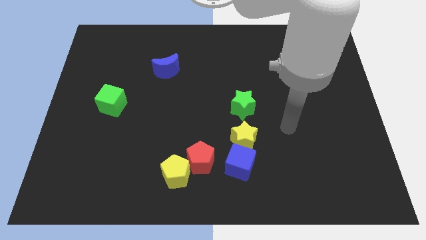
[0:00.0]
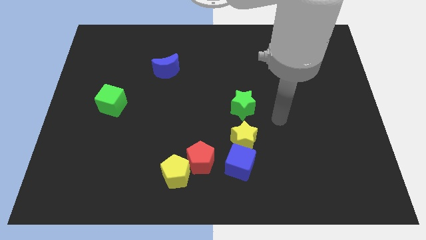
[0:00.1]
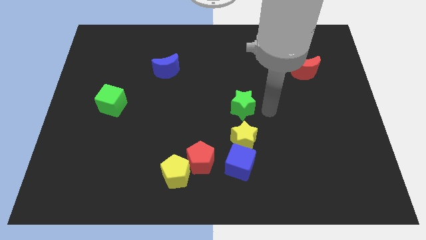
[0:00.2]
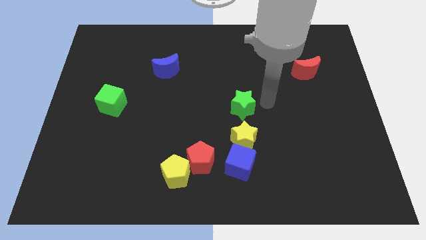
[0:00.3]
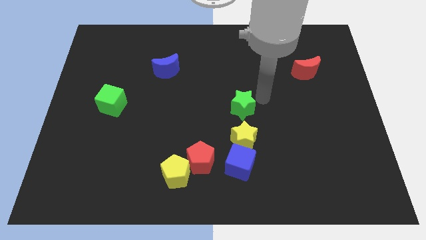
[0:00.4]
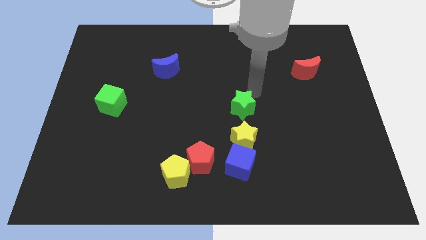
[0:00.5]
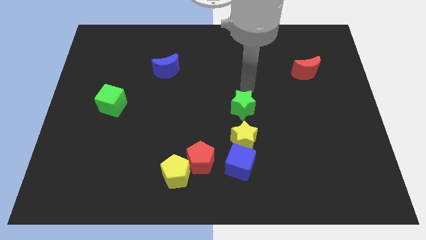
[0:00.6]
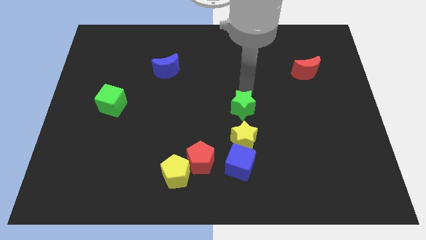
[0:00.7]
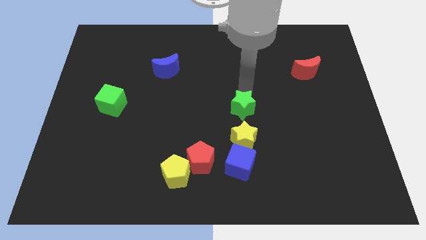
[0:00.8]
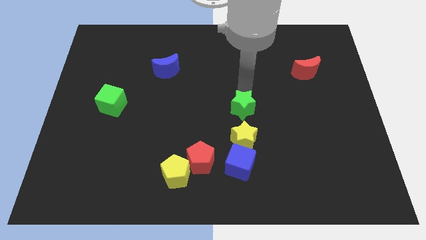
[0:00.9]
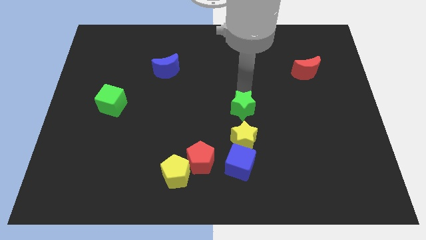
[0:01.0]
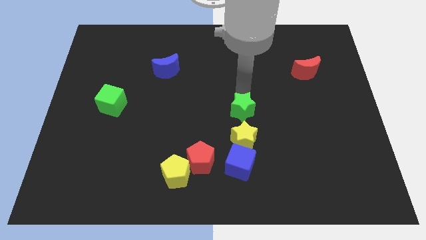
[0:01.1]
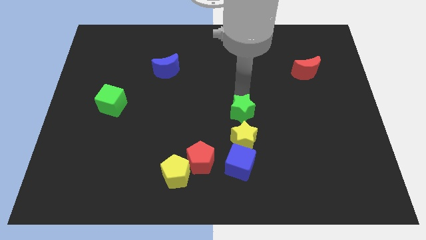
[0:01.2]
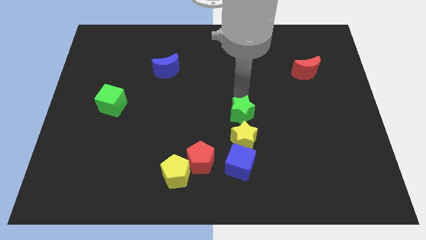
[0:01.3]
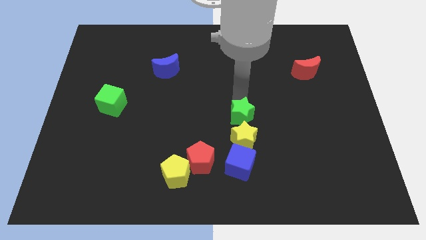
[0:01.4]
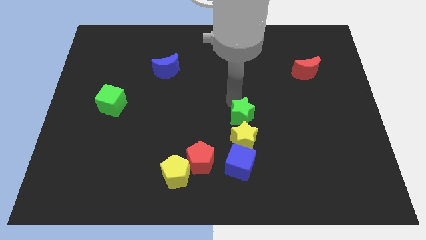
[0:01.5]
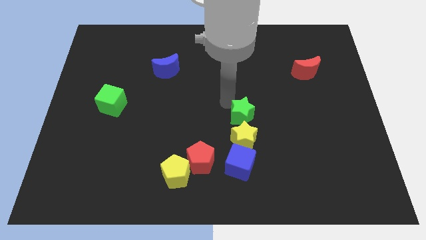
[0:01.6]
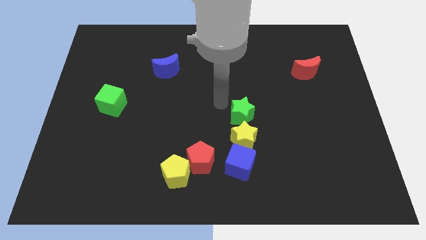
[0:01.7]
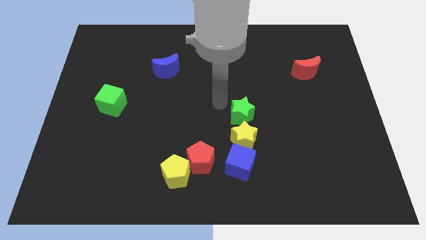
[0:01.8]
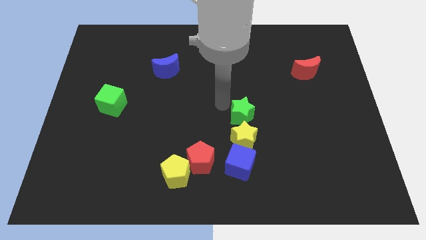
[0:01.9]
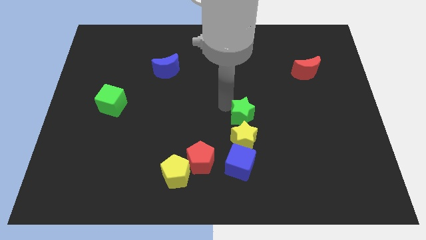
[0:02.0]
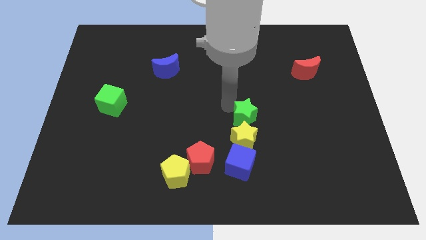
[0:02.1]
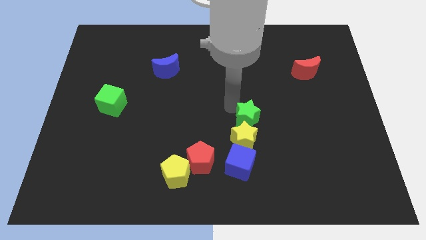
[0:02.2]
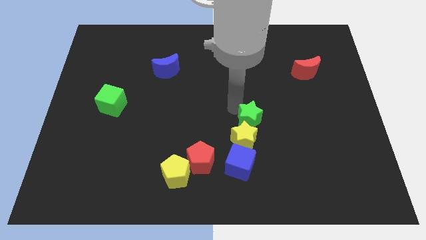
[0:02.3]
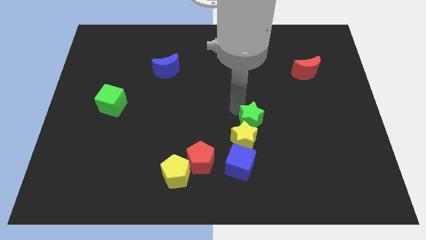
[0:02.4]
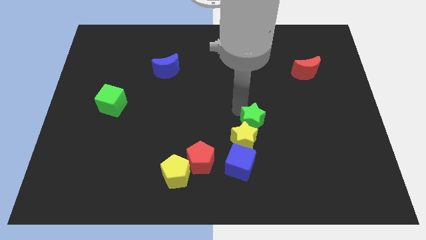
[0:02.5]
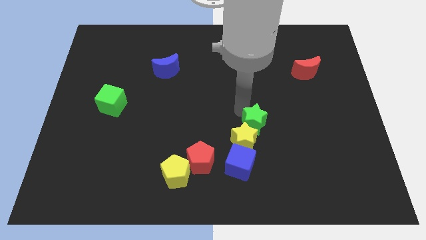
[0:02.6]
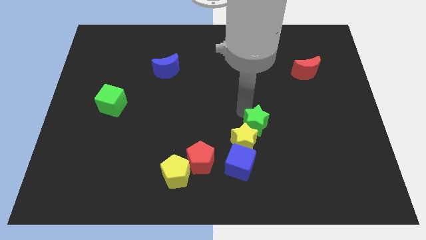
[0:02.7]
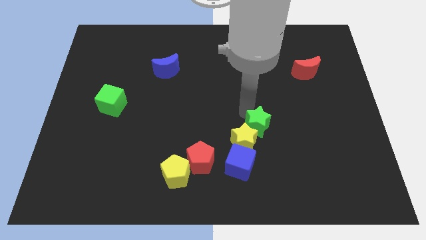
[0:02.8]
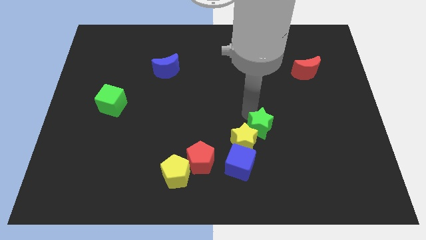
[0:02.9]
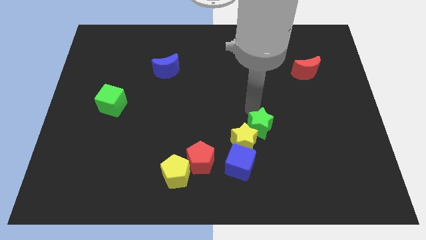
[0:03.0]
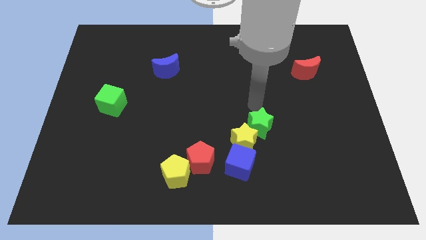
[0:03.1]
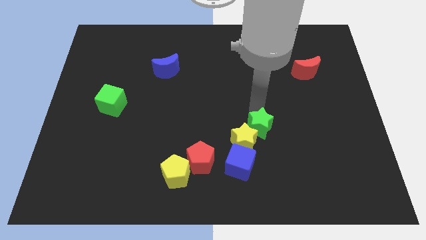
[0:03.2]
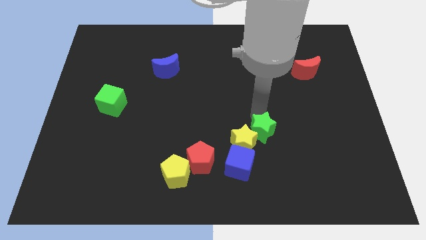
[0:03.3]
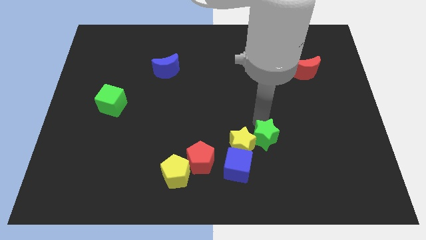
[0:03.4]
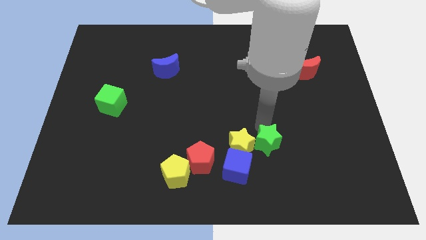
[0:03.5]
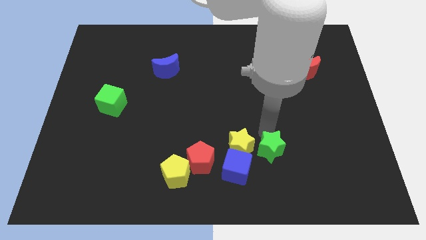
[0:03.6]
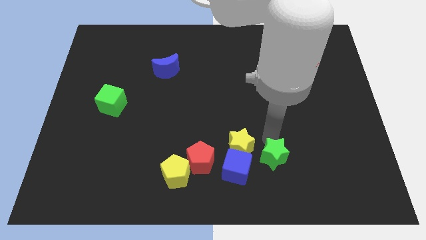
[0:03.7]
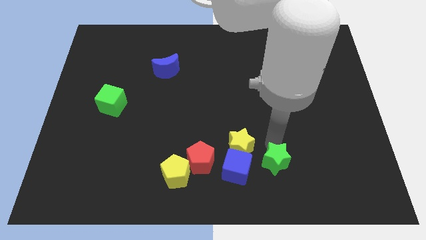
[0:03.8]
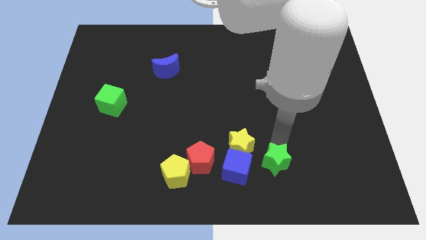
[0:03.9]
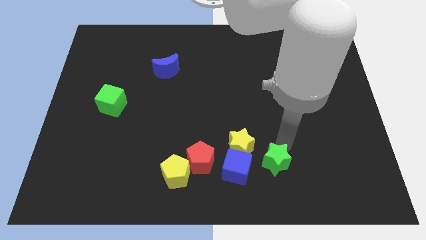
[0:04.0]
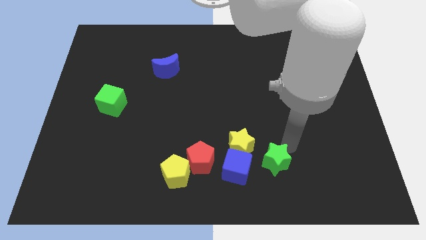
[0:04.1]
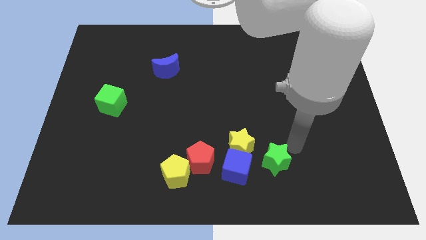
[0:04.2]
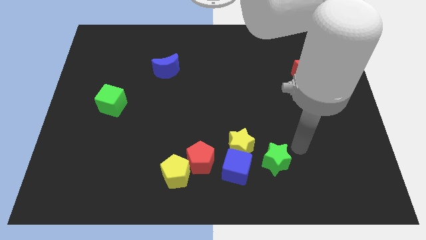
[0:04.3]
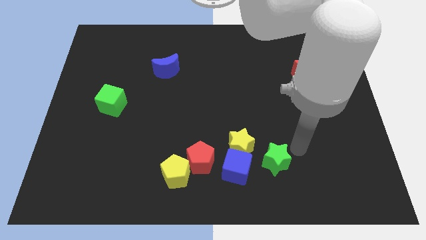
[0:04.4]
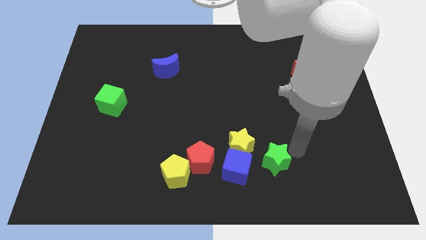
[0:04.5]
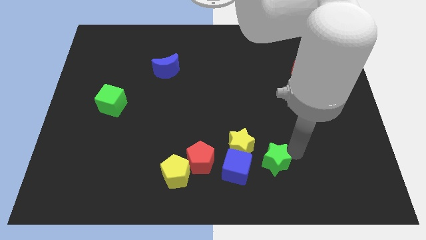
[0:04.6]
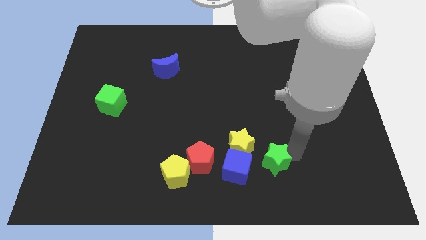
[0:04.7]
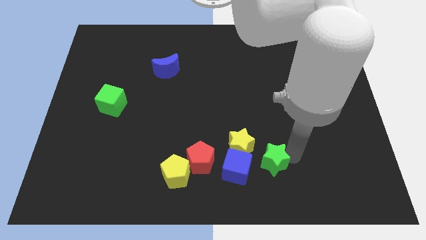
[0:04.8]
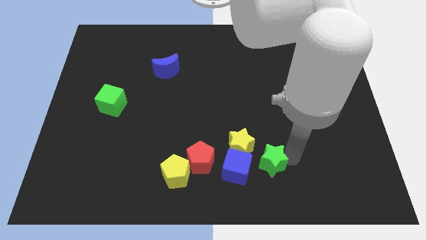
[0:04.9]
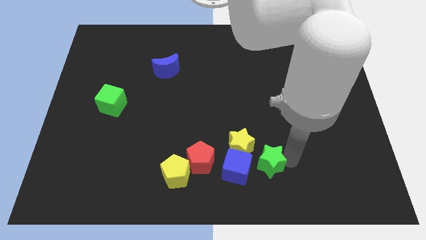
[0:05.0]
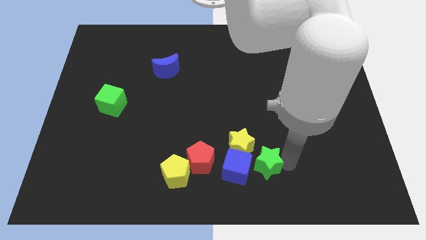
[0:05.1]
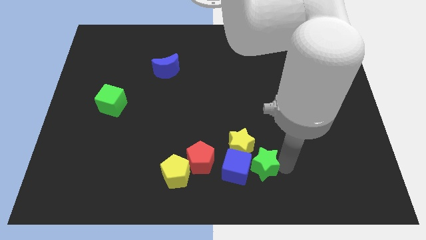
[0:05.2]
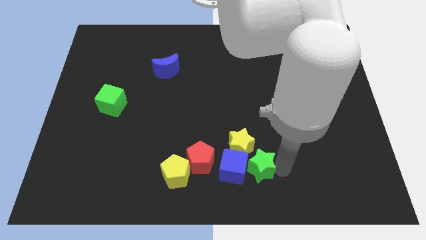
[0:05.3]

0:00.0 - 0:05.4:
move the green star below the yellow star

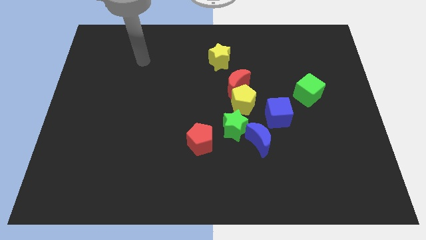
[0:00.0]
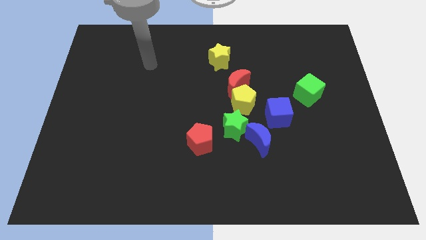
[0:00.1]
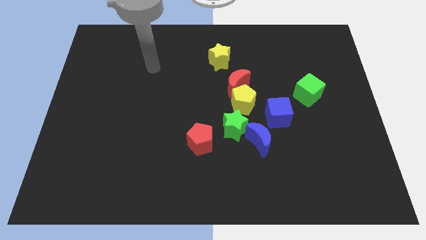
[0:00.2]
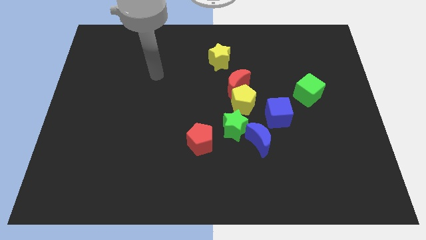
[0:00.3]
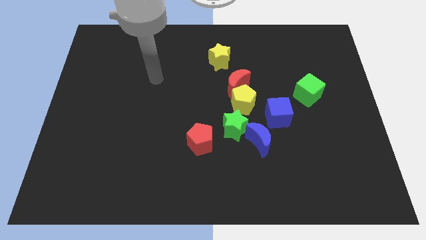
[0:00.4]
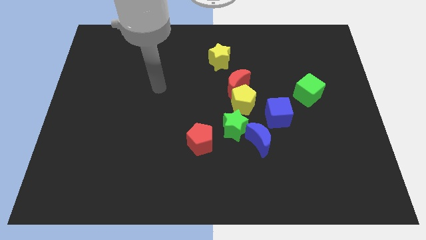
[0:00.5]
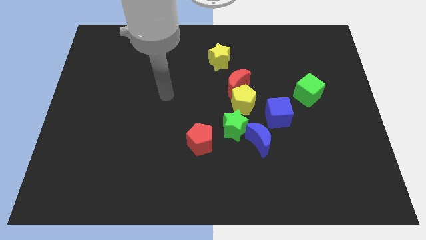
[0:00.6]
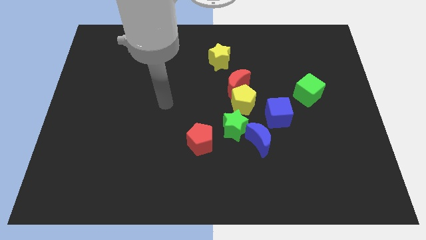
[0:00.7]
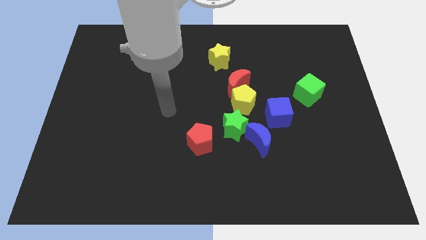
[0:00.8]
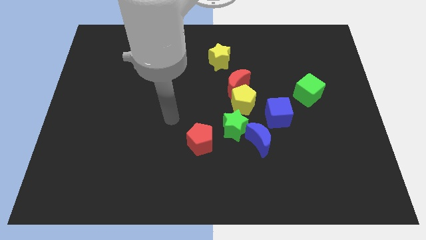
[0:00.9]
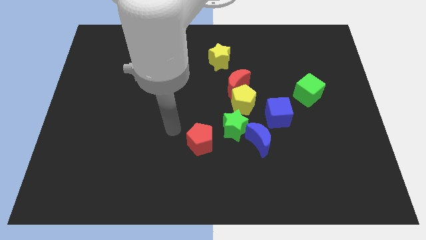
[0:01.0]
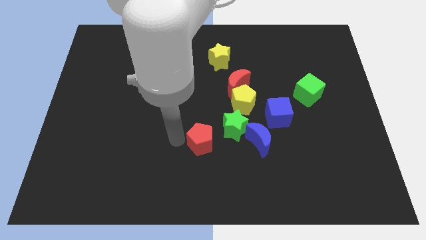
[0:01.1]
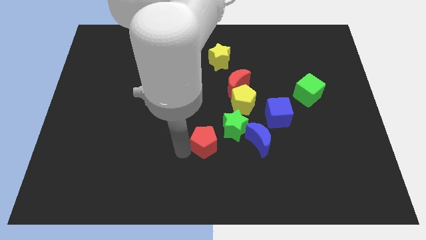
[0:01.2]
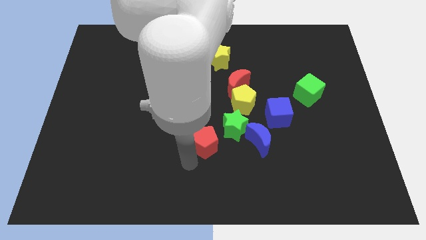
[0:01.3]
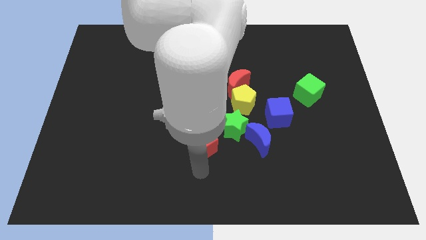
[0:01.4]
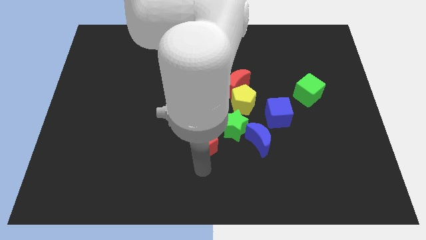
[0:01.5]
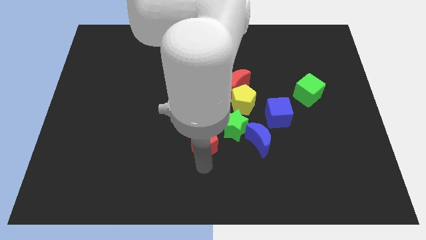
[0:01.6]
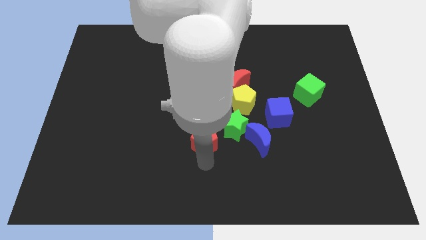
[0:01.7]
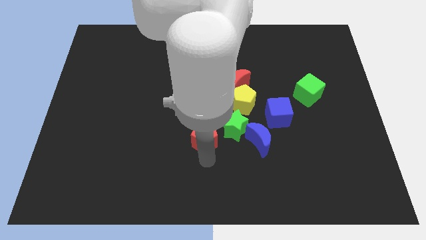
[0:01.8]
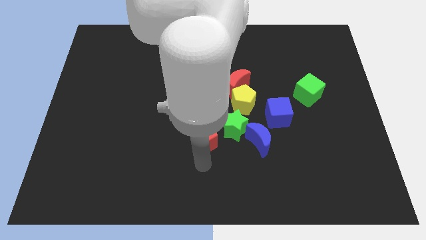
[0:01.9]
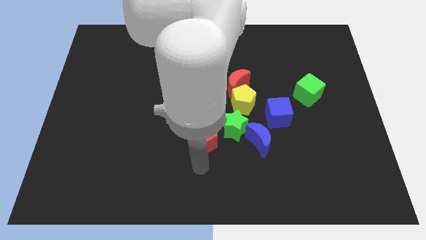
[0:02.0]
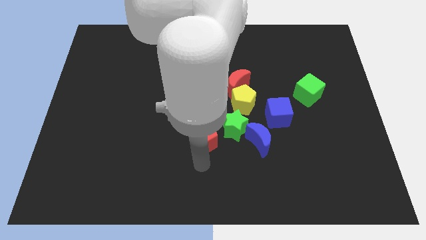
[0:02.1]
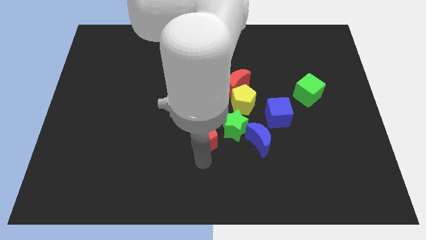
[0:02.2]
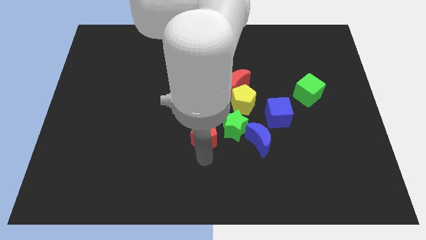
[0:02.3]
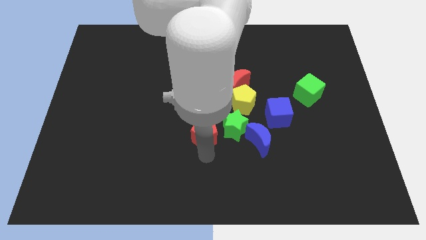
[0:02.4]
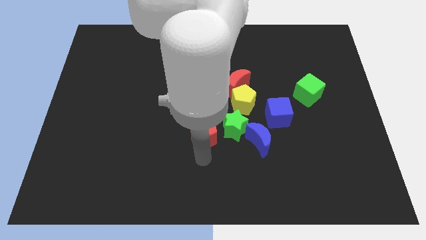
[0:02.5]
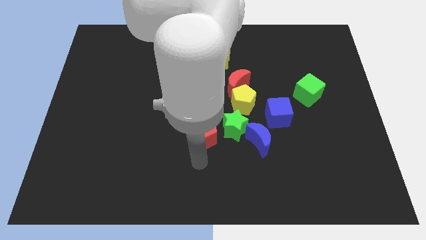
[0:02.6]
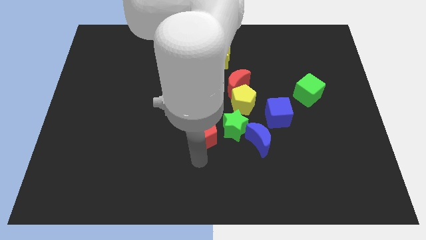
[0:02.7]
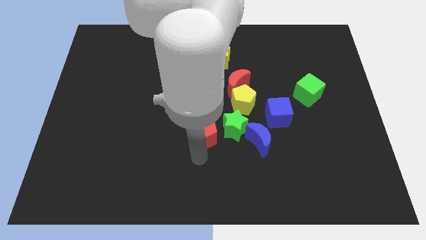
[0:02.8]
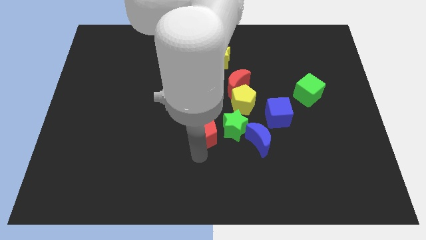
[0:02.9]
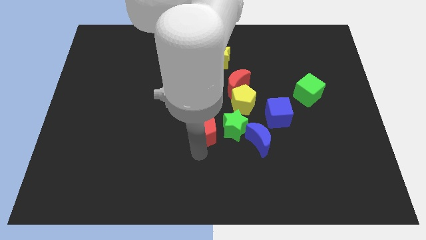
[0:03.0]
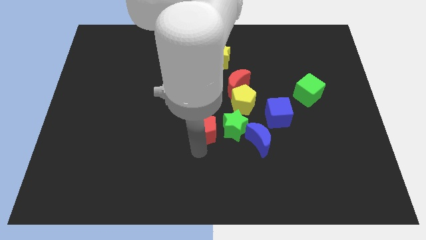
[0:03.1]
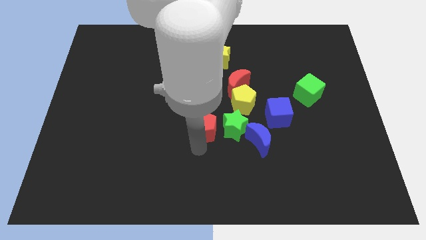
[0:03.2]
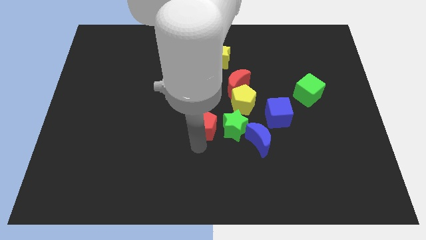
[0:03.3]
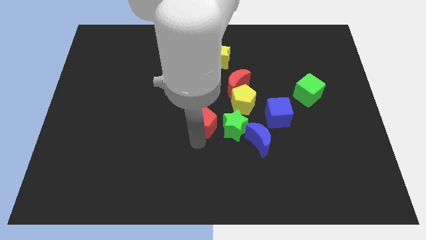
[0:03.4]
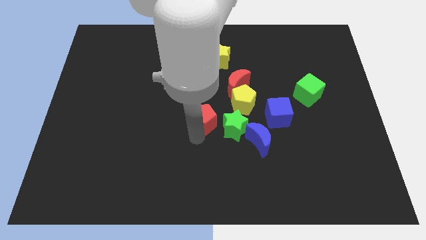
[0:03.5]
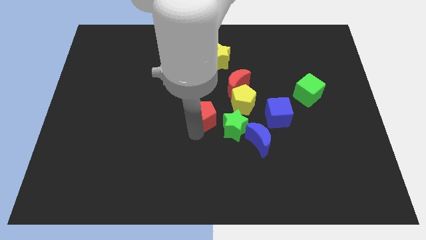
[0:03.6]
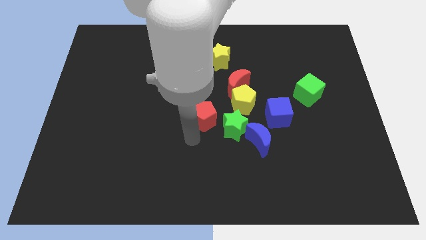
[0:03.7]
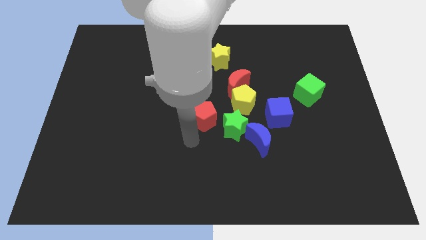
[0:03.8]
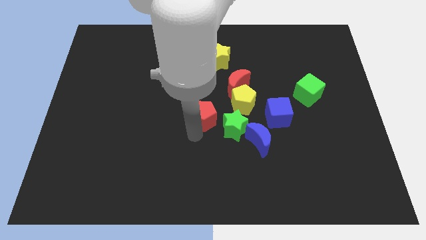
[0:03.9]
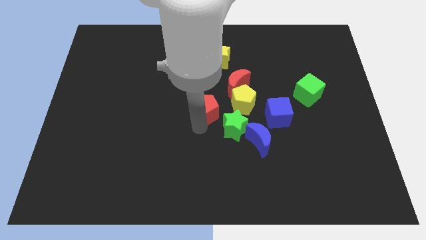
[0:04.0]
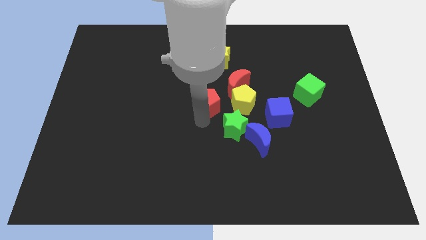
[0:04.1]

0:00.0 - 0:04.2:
slide the red pentagon below the yellow star
